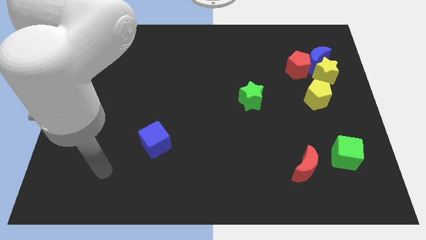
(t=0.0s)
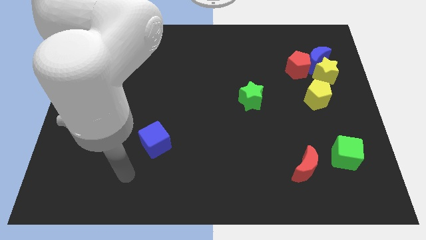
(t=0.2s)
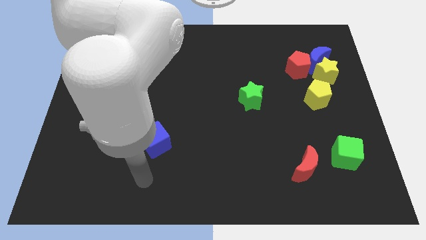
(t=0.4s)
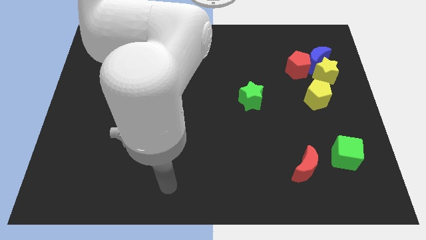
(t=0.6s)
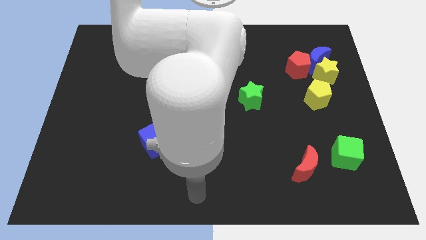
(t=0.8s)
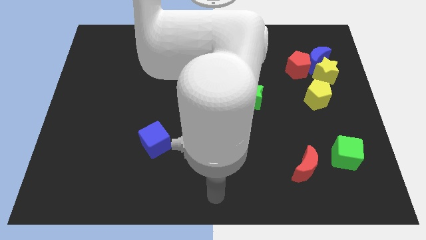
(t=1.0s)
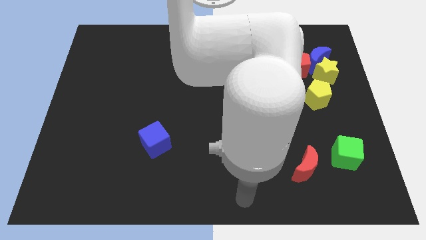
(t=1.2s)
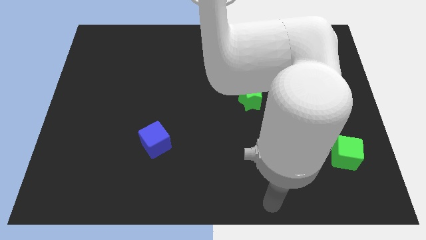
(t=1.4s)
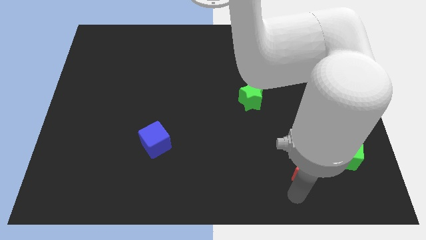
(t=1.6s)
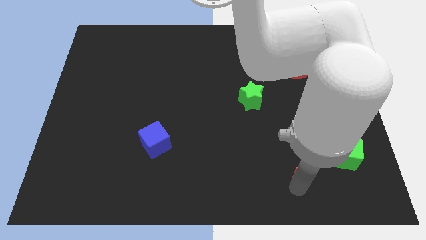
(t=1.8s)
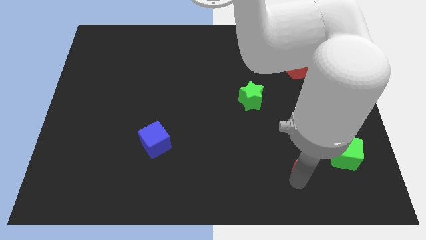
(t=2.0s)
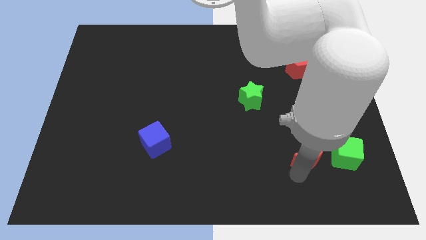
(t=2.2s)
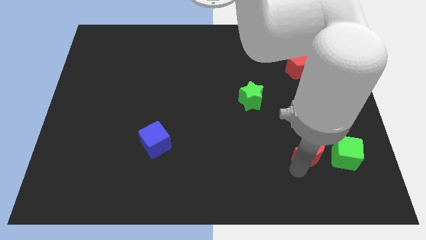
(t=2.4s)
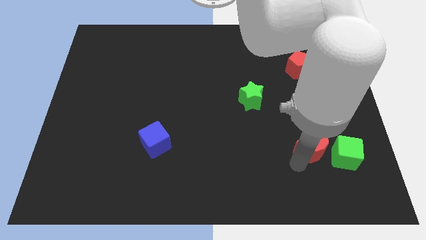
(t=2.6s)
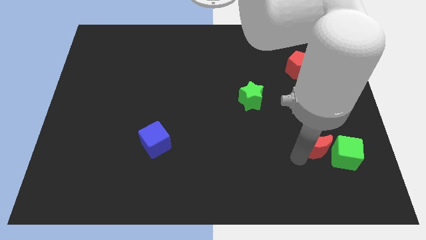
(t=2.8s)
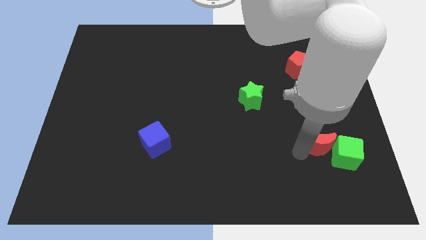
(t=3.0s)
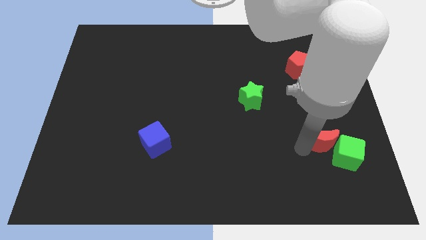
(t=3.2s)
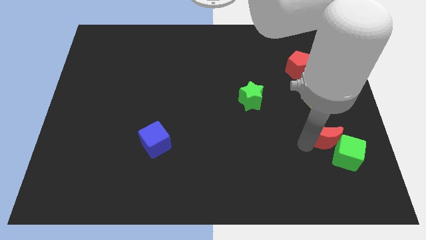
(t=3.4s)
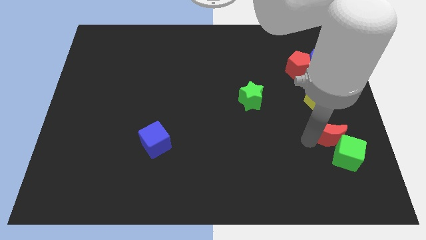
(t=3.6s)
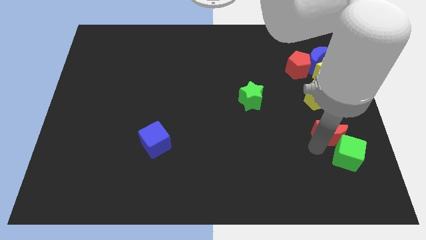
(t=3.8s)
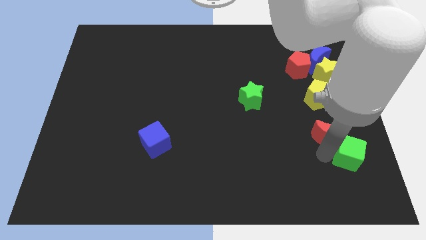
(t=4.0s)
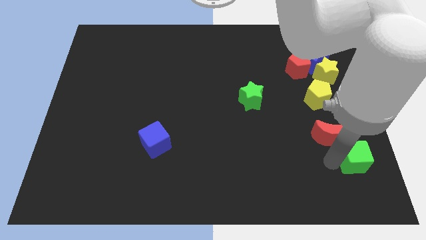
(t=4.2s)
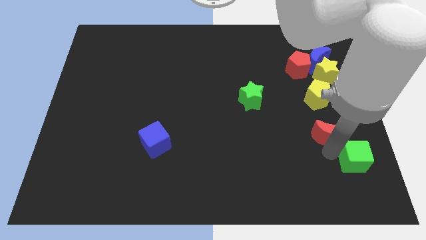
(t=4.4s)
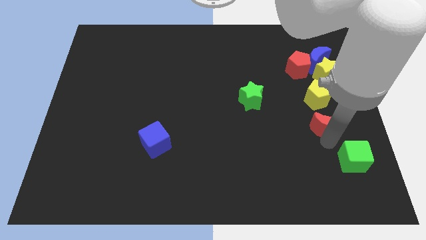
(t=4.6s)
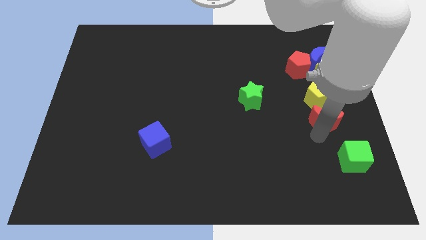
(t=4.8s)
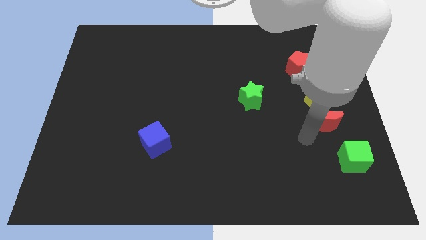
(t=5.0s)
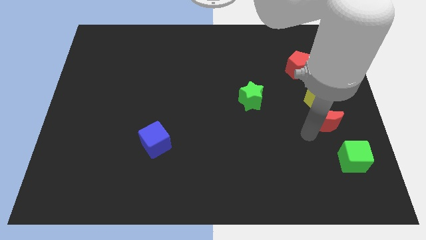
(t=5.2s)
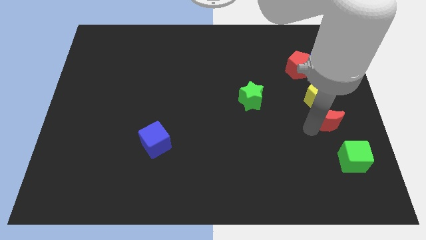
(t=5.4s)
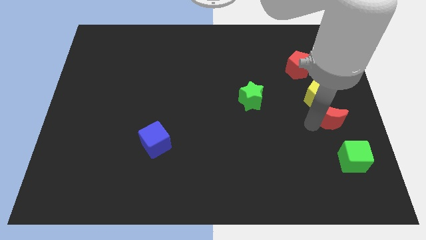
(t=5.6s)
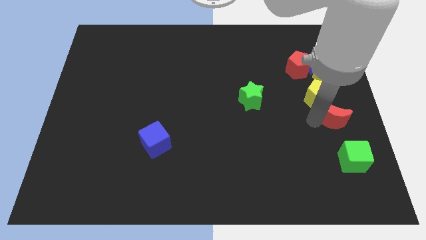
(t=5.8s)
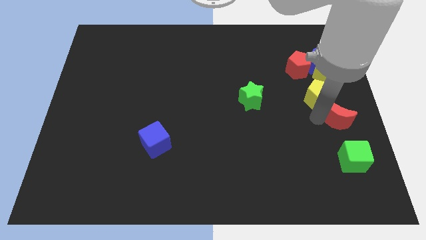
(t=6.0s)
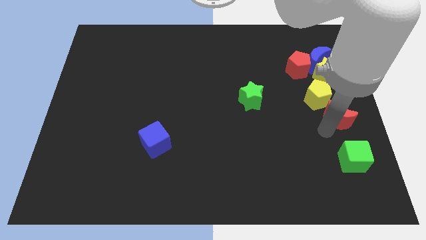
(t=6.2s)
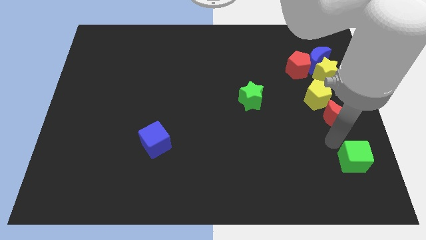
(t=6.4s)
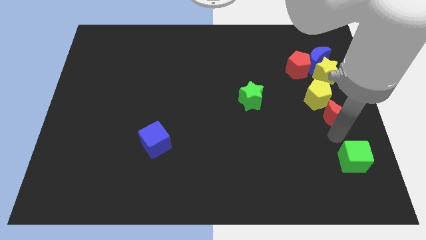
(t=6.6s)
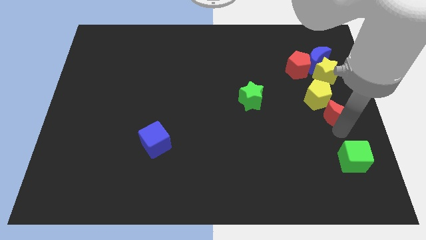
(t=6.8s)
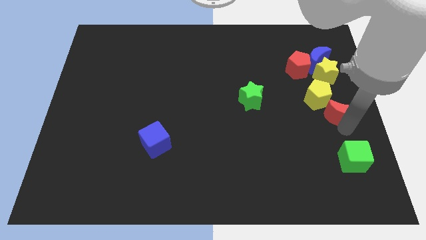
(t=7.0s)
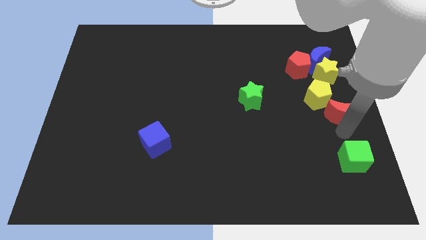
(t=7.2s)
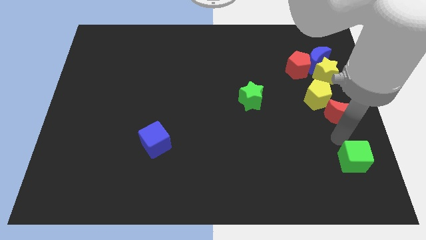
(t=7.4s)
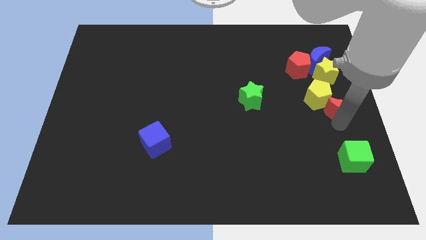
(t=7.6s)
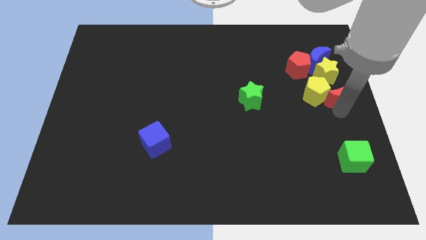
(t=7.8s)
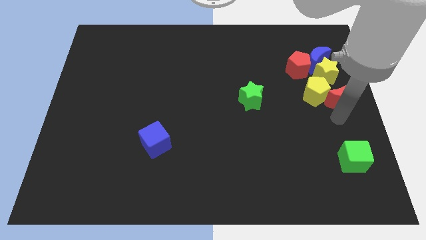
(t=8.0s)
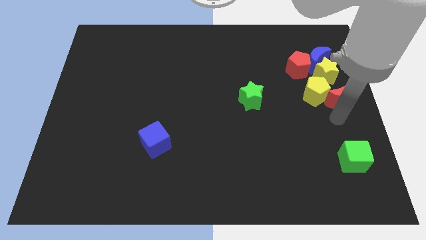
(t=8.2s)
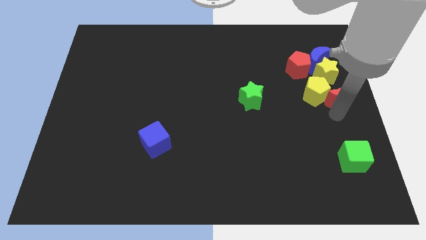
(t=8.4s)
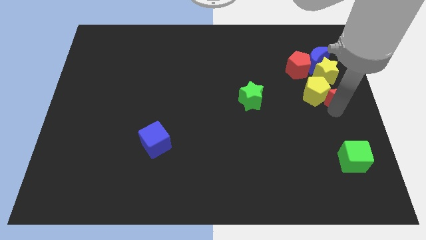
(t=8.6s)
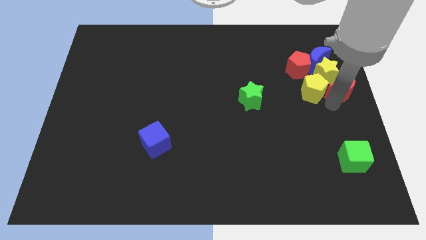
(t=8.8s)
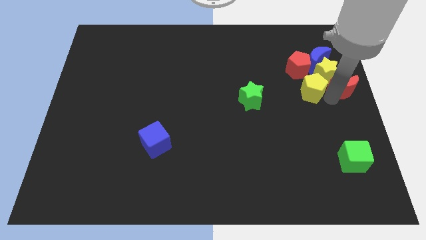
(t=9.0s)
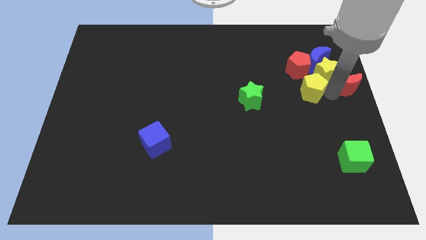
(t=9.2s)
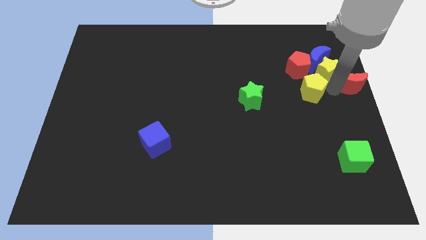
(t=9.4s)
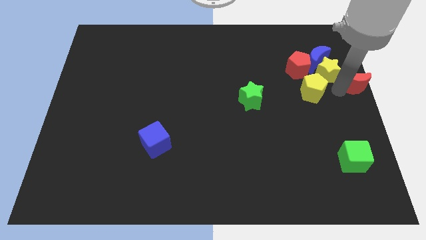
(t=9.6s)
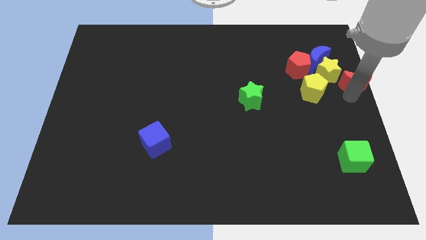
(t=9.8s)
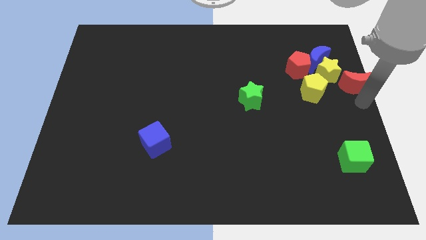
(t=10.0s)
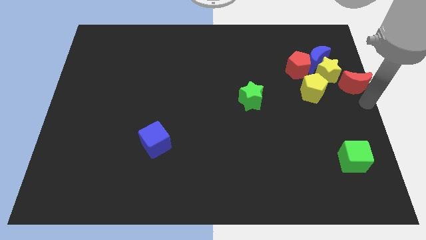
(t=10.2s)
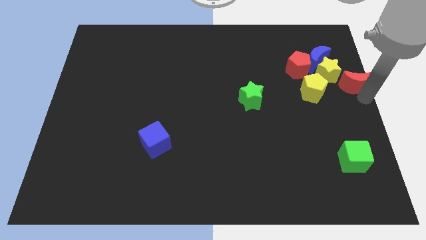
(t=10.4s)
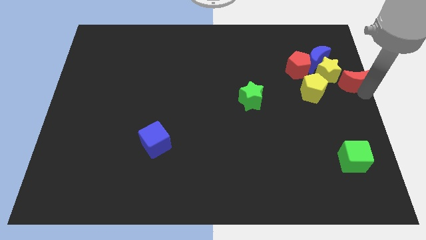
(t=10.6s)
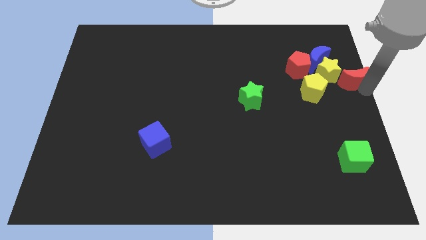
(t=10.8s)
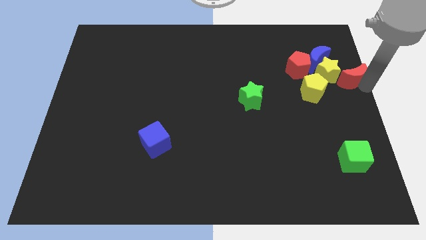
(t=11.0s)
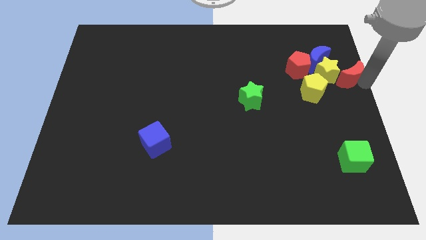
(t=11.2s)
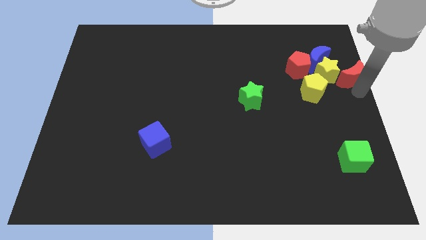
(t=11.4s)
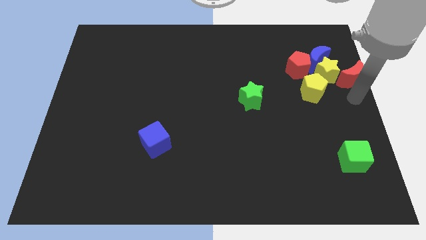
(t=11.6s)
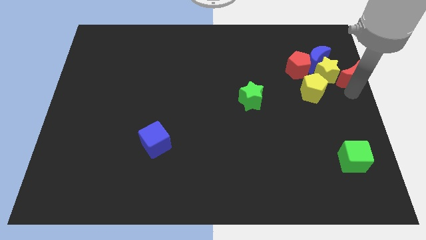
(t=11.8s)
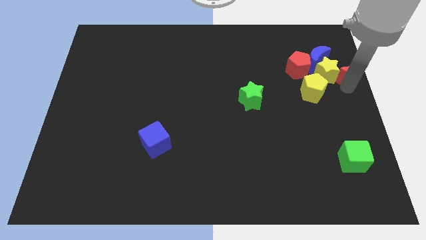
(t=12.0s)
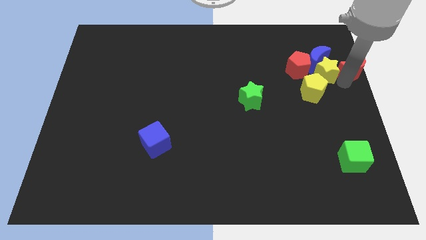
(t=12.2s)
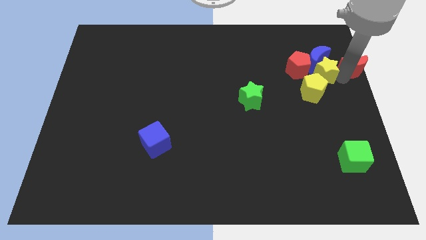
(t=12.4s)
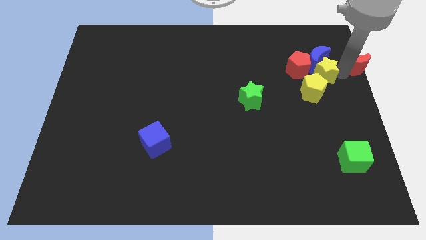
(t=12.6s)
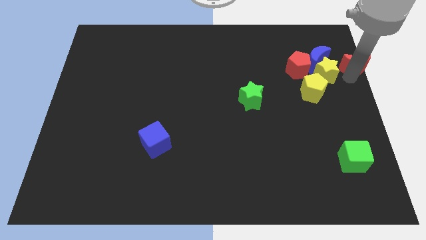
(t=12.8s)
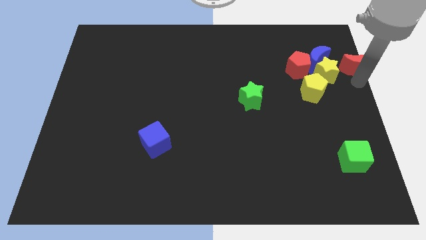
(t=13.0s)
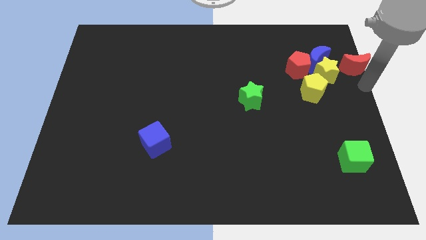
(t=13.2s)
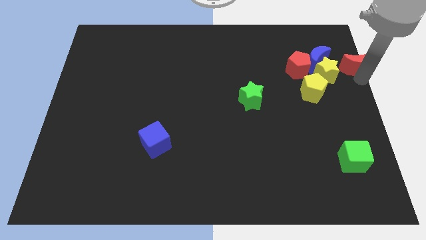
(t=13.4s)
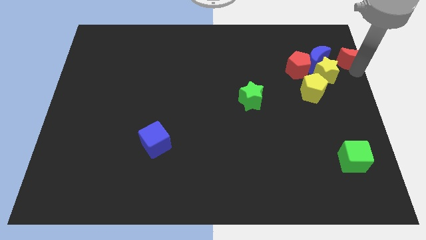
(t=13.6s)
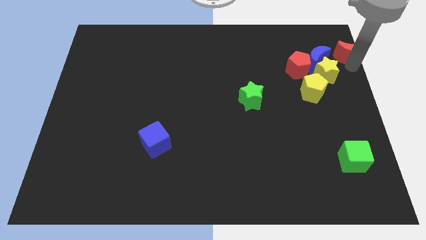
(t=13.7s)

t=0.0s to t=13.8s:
push the red moon to the upper right corner
